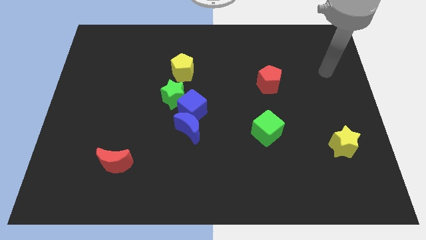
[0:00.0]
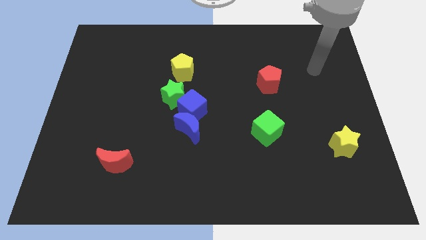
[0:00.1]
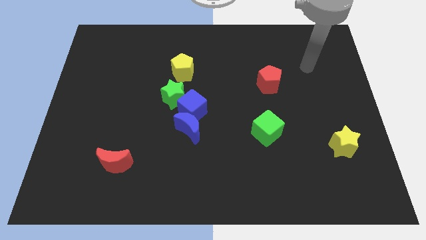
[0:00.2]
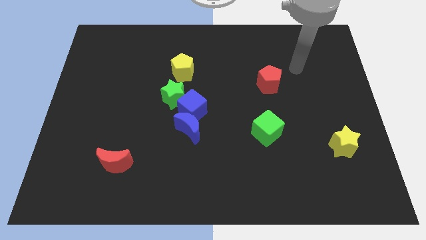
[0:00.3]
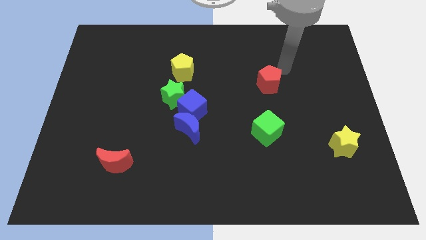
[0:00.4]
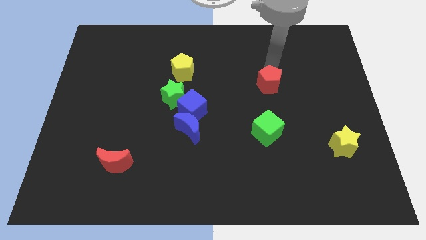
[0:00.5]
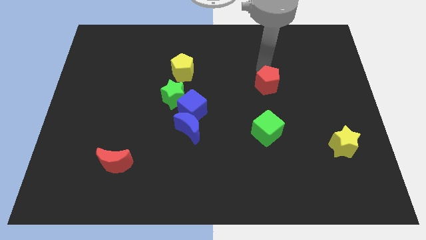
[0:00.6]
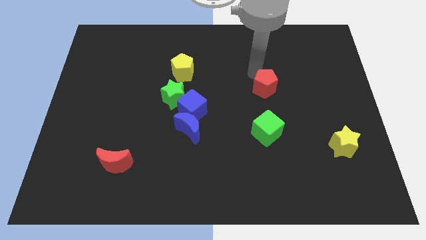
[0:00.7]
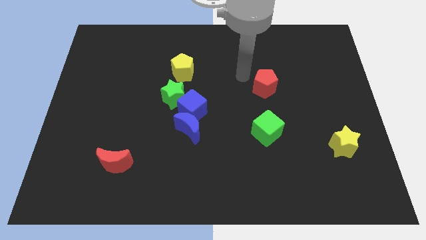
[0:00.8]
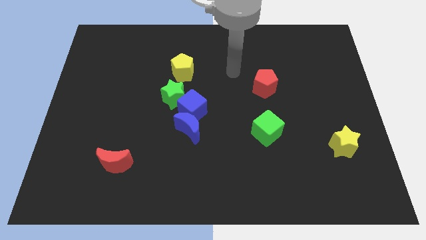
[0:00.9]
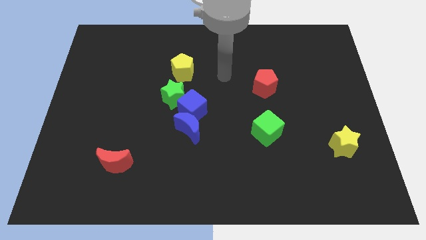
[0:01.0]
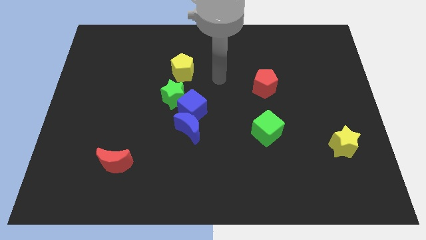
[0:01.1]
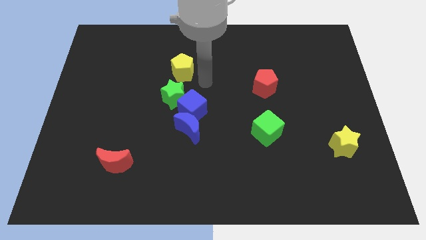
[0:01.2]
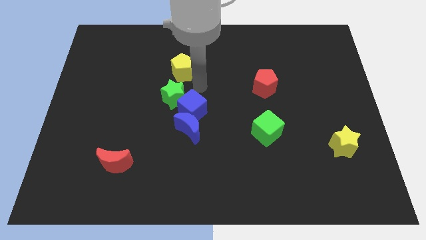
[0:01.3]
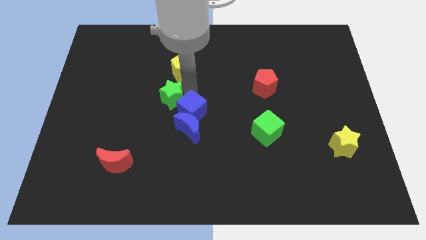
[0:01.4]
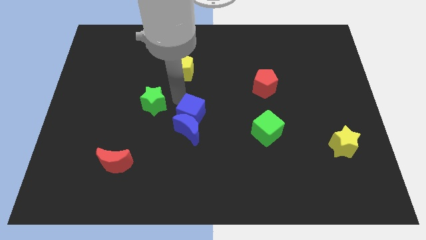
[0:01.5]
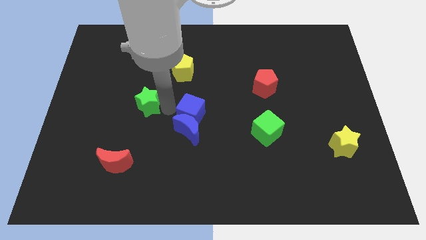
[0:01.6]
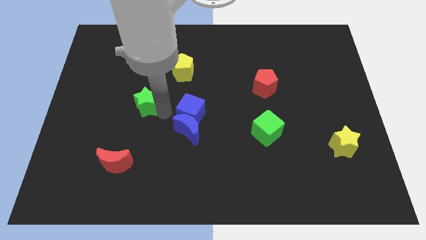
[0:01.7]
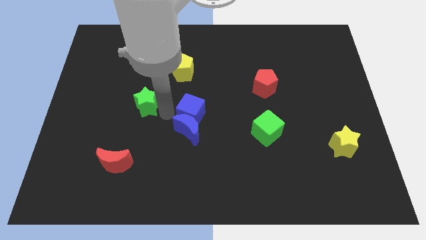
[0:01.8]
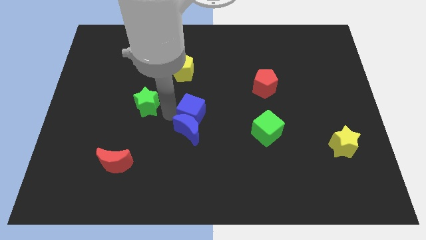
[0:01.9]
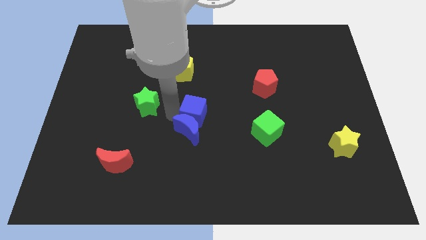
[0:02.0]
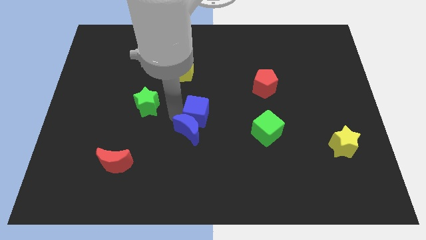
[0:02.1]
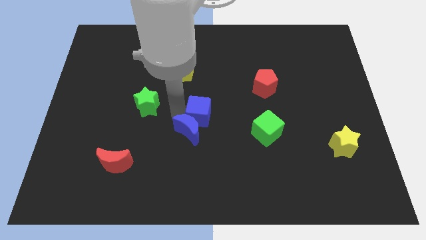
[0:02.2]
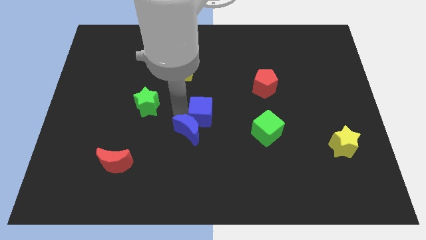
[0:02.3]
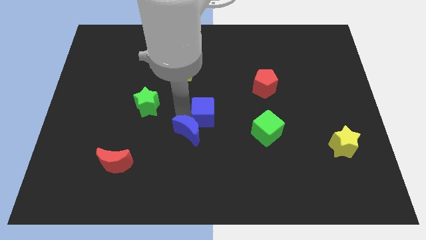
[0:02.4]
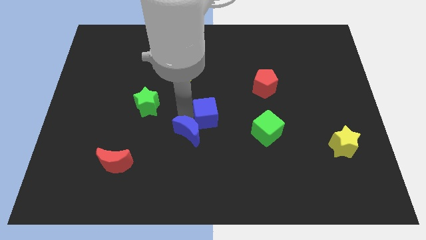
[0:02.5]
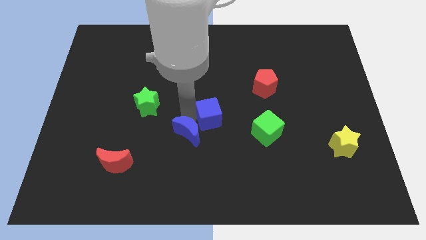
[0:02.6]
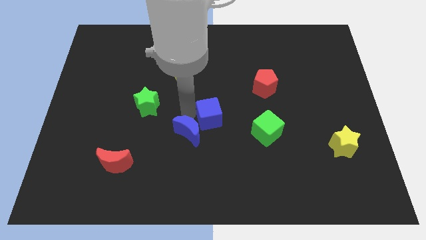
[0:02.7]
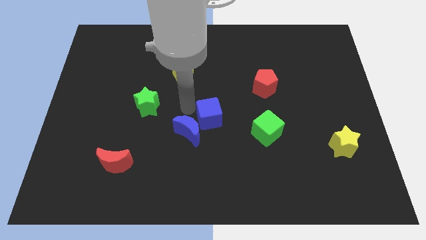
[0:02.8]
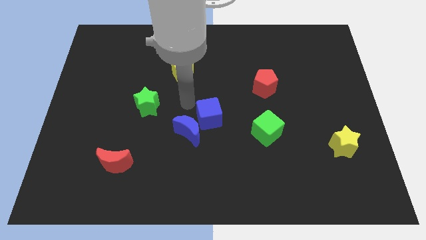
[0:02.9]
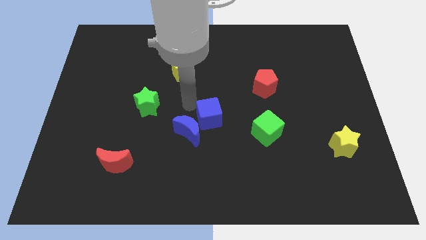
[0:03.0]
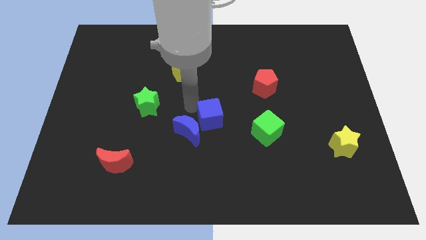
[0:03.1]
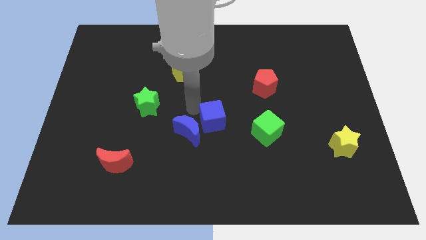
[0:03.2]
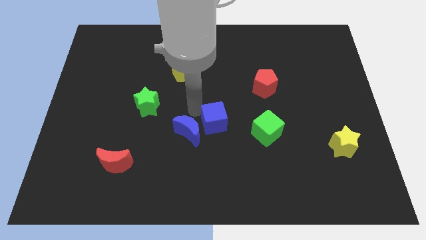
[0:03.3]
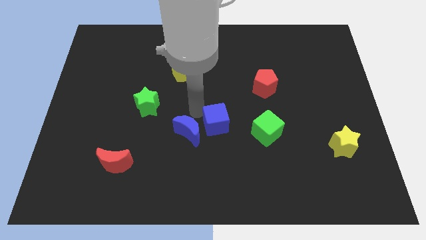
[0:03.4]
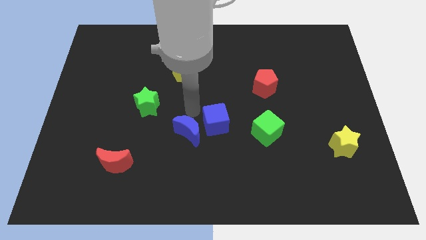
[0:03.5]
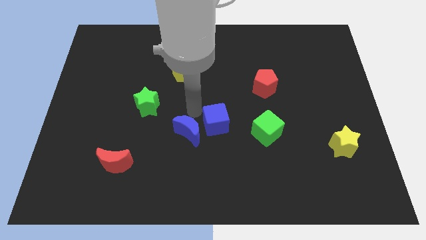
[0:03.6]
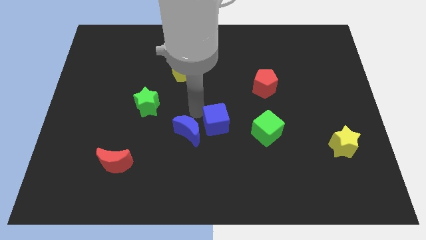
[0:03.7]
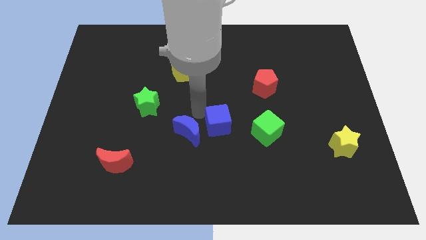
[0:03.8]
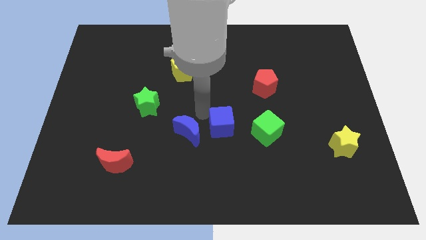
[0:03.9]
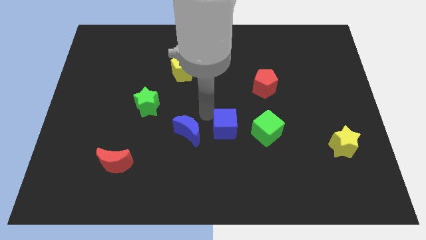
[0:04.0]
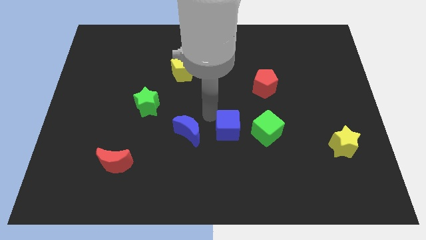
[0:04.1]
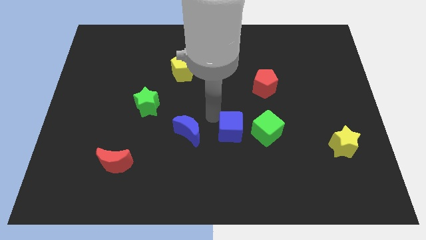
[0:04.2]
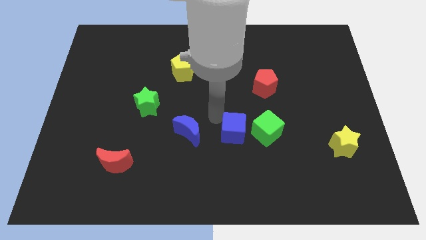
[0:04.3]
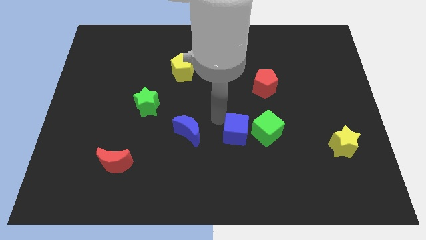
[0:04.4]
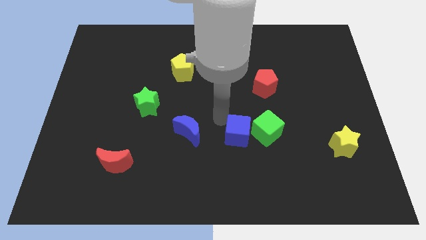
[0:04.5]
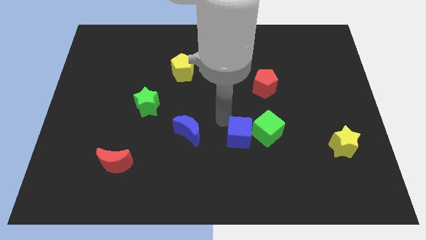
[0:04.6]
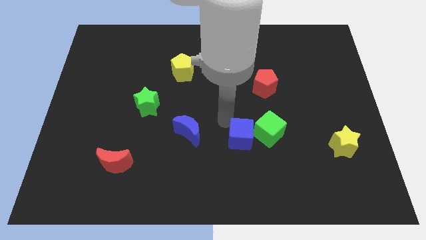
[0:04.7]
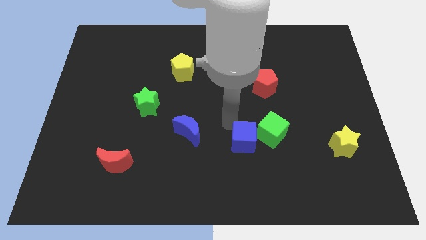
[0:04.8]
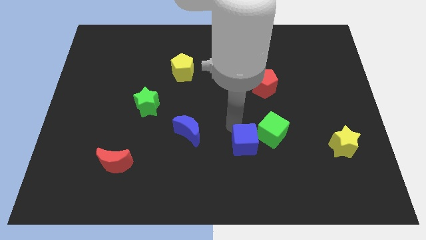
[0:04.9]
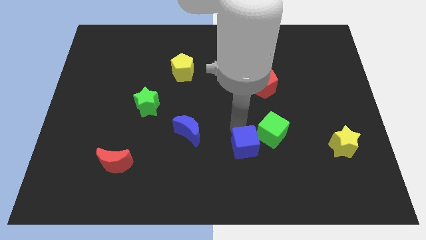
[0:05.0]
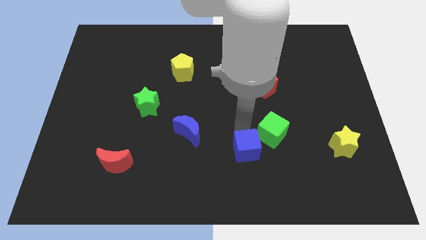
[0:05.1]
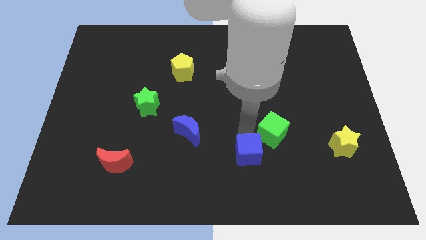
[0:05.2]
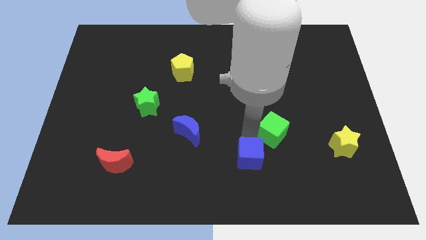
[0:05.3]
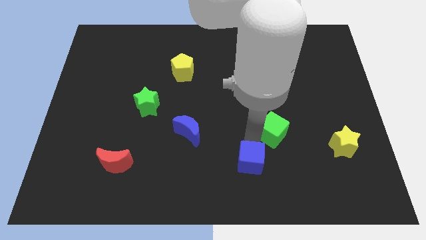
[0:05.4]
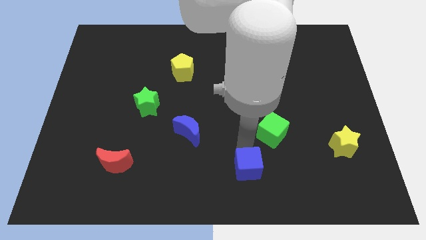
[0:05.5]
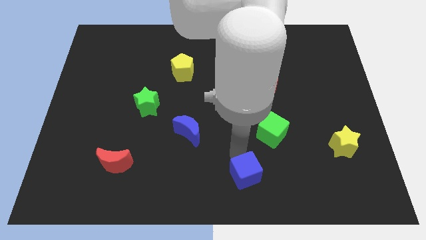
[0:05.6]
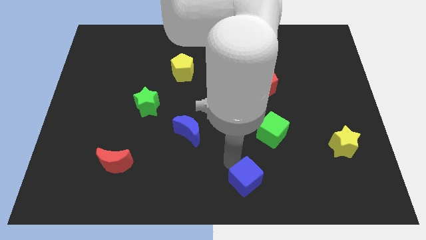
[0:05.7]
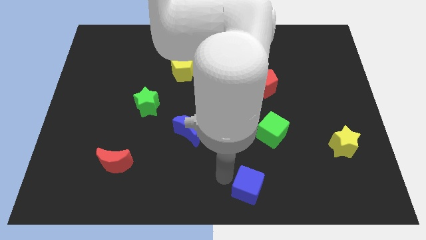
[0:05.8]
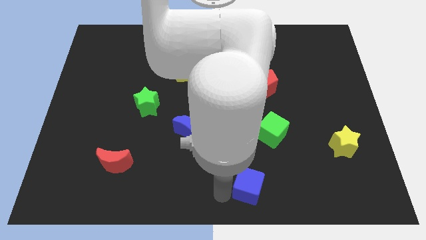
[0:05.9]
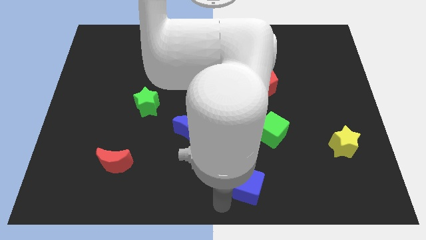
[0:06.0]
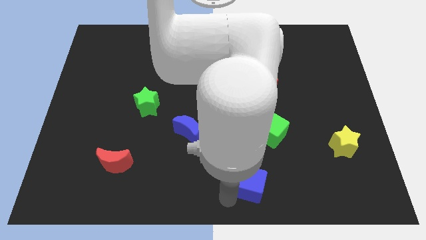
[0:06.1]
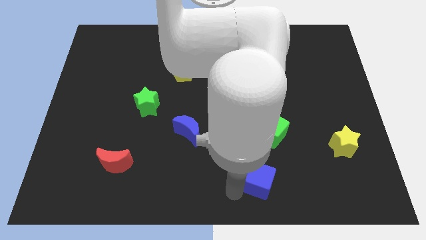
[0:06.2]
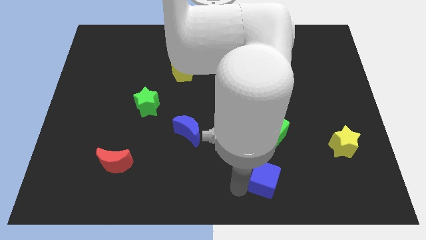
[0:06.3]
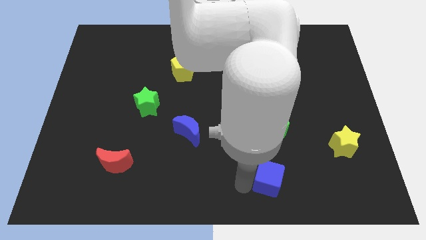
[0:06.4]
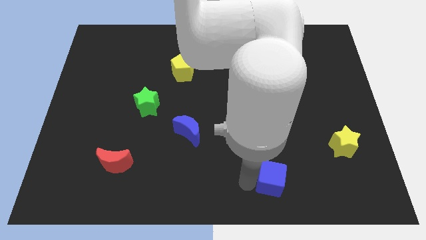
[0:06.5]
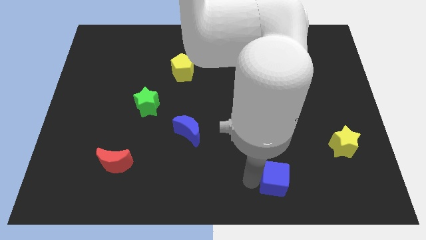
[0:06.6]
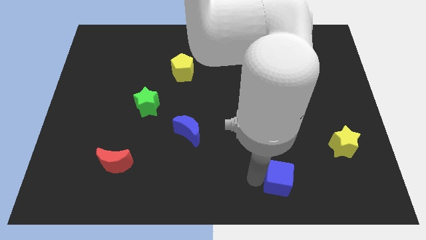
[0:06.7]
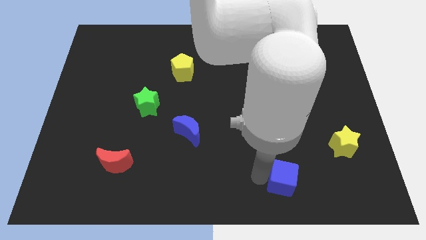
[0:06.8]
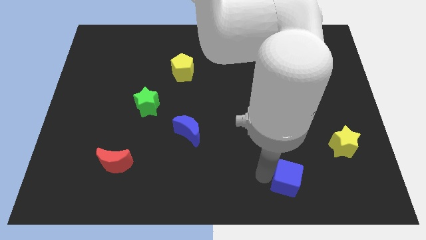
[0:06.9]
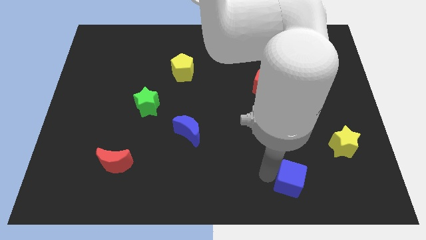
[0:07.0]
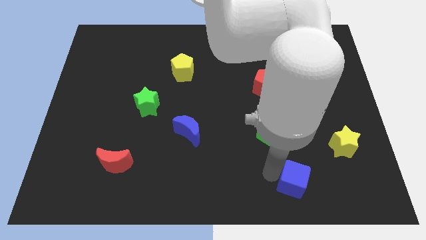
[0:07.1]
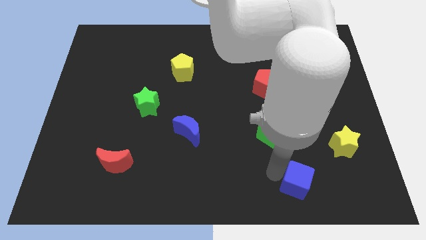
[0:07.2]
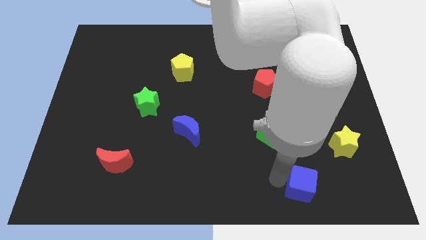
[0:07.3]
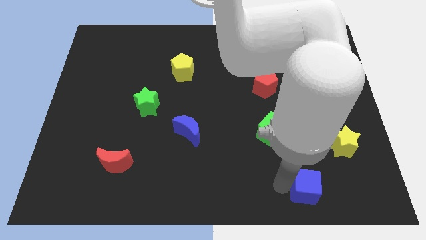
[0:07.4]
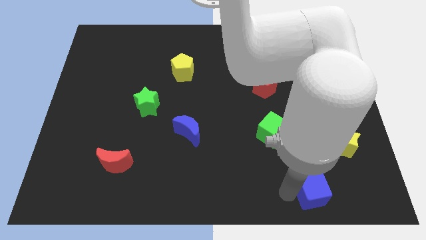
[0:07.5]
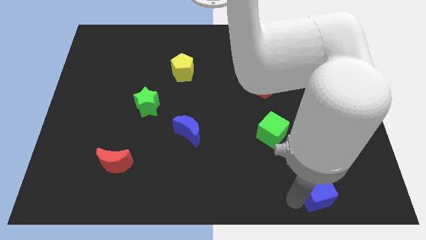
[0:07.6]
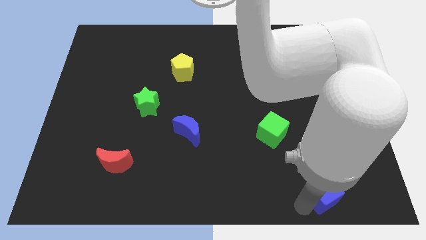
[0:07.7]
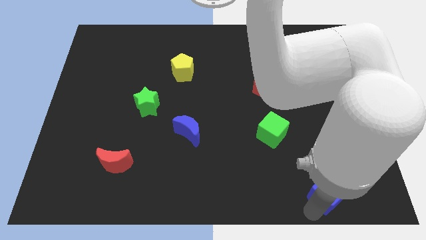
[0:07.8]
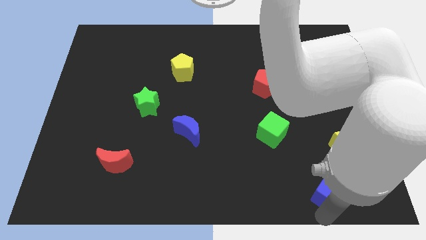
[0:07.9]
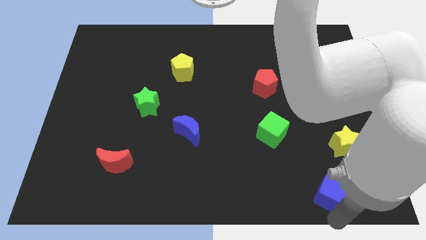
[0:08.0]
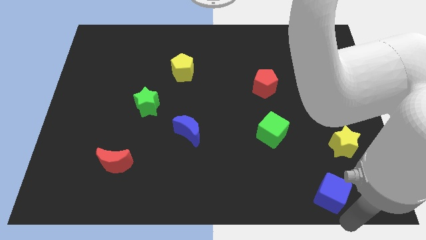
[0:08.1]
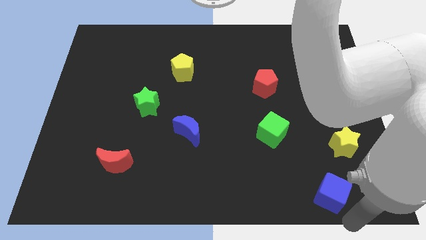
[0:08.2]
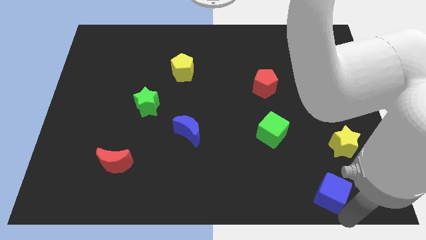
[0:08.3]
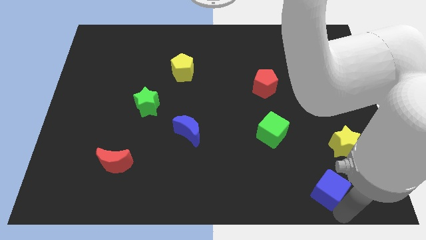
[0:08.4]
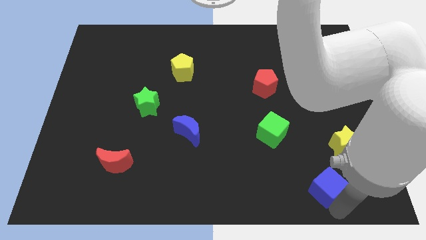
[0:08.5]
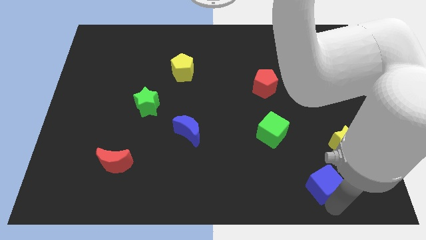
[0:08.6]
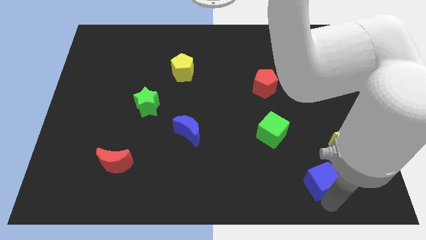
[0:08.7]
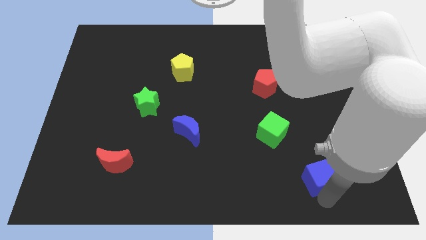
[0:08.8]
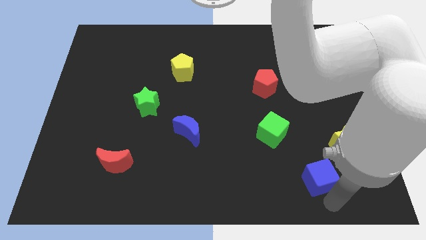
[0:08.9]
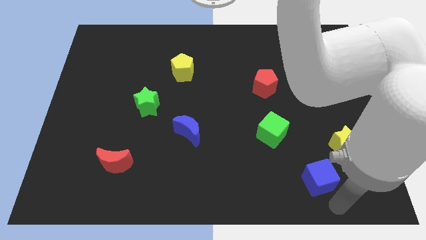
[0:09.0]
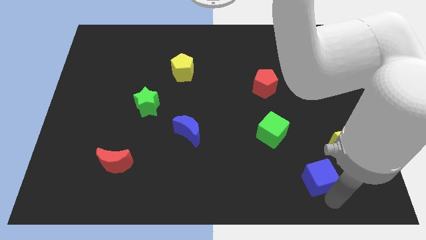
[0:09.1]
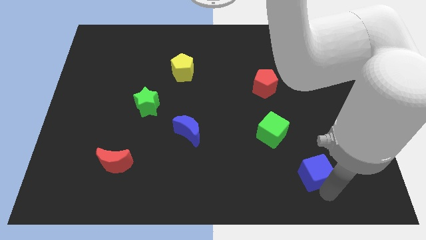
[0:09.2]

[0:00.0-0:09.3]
put the blue cube diagonally down and to the right of the green cube
